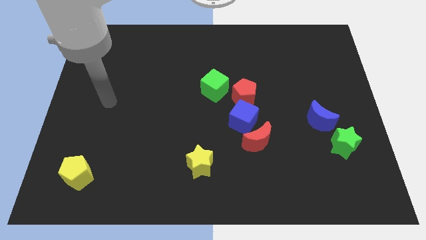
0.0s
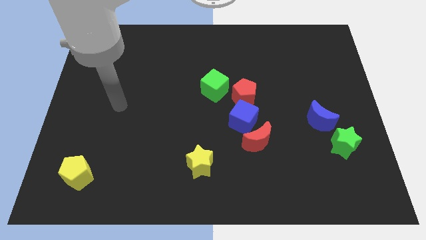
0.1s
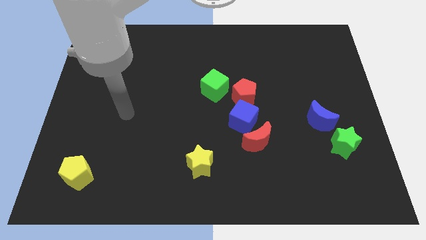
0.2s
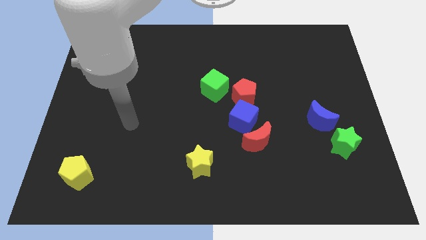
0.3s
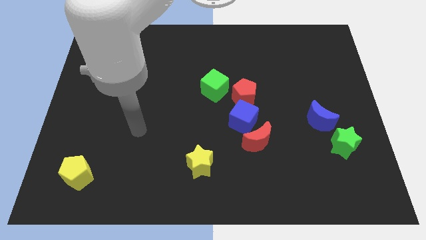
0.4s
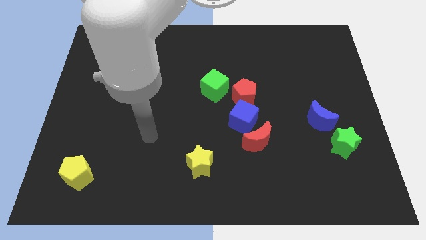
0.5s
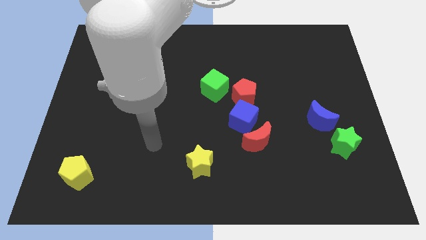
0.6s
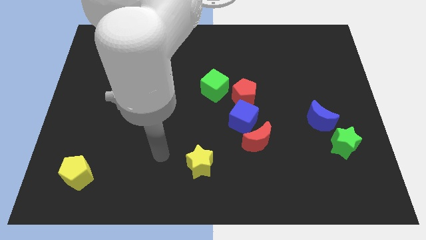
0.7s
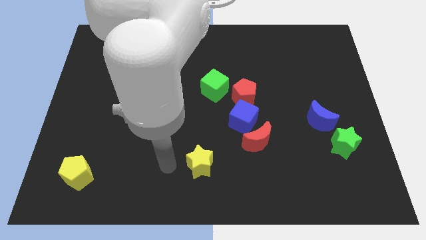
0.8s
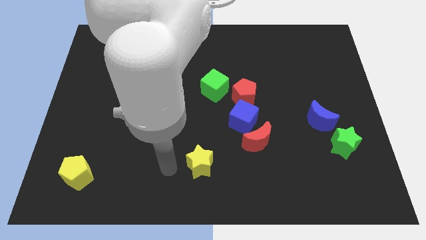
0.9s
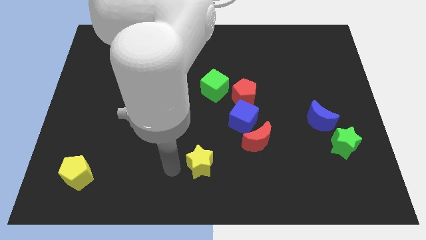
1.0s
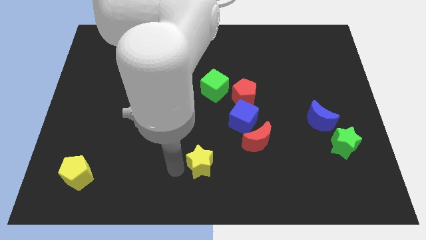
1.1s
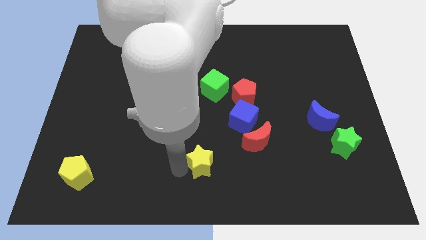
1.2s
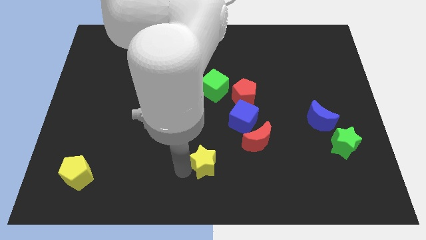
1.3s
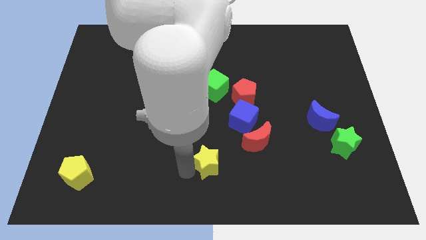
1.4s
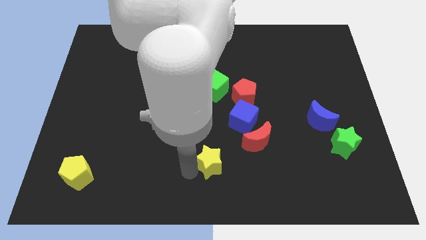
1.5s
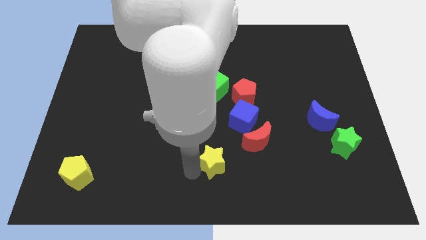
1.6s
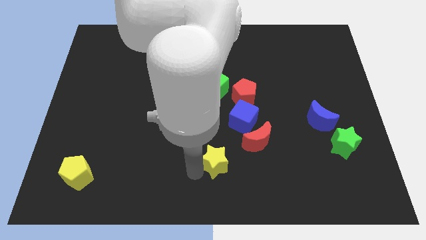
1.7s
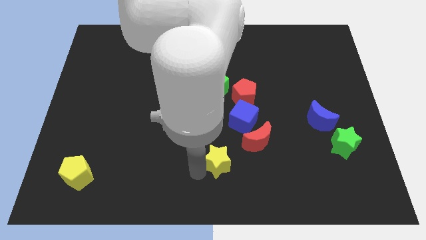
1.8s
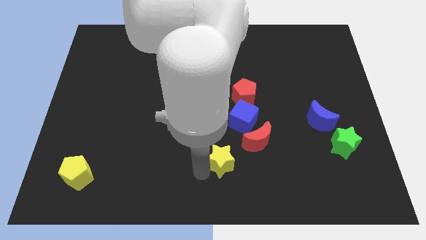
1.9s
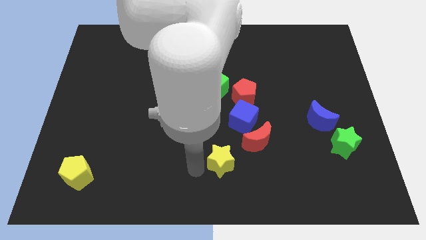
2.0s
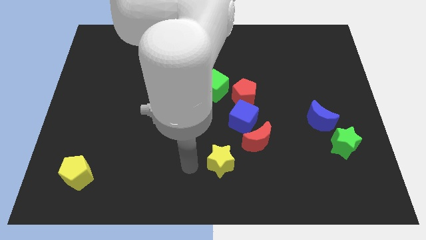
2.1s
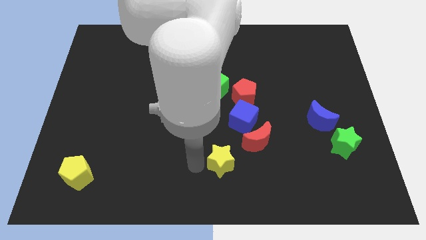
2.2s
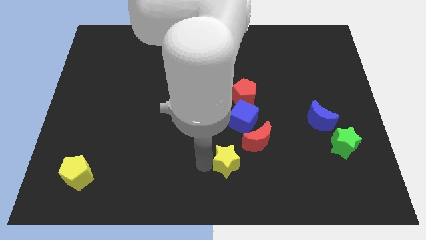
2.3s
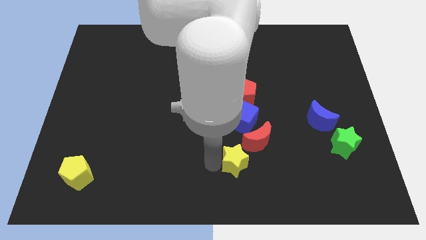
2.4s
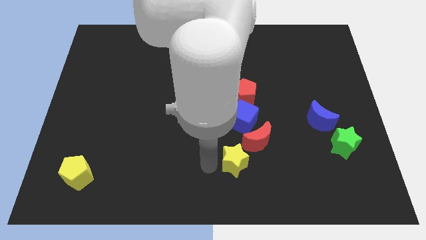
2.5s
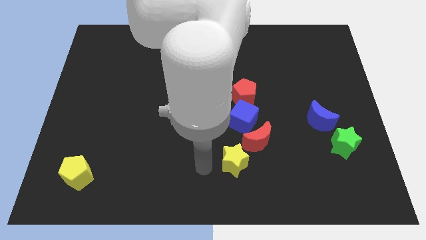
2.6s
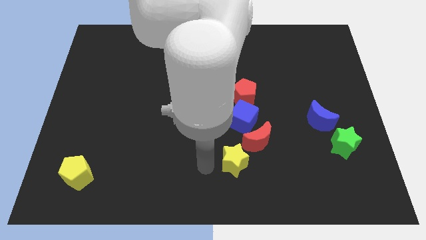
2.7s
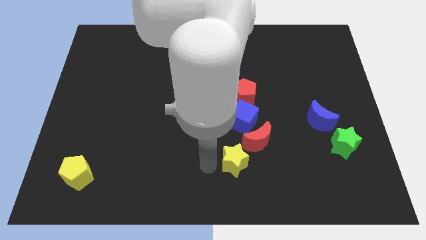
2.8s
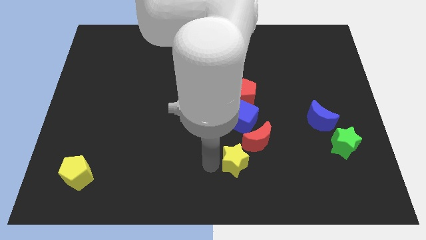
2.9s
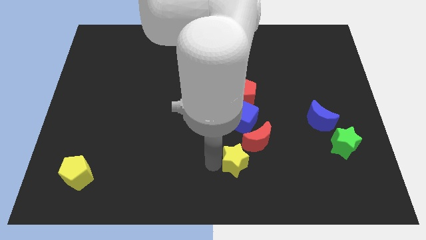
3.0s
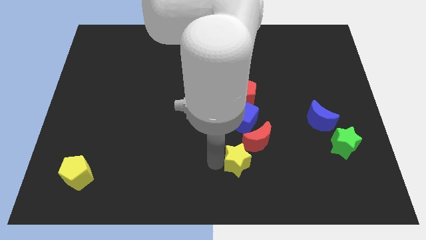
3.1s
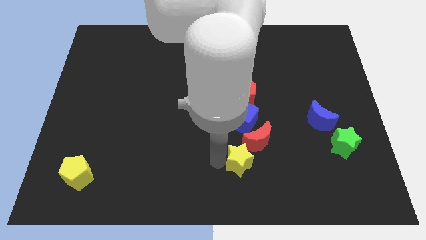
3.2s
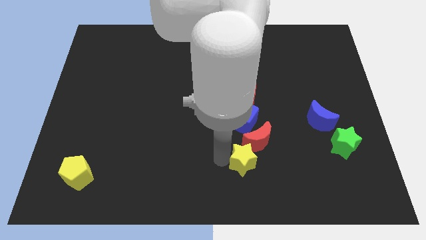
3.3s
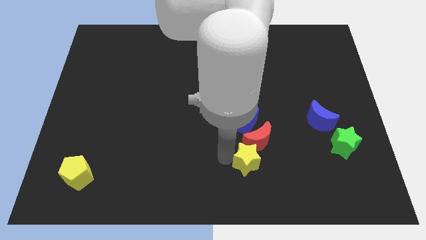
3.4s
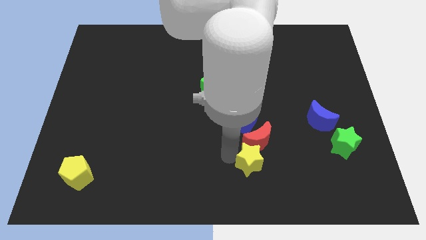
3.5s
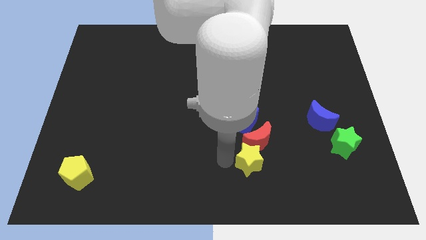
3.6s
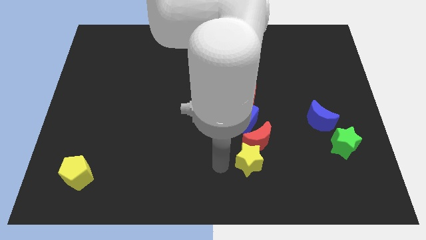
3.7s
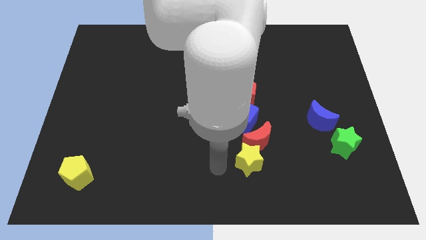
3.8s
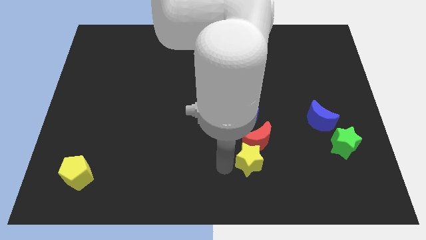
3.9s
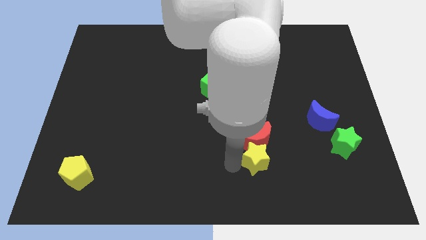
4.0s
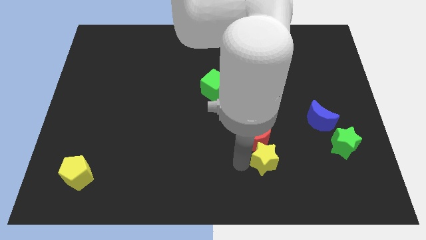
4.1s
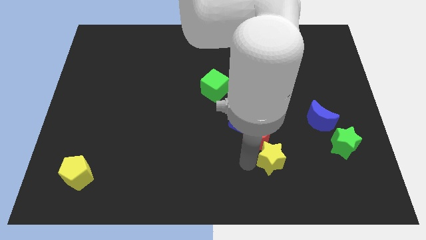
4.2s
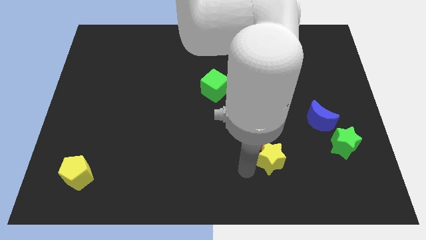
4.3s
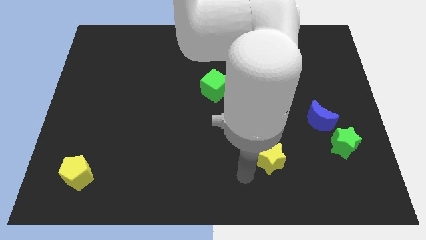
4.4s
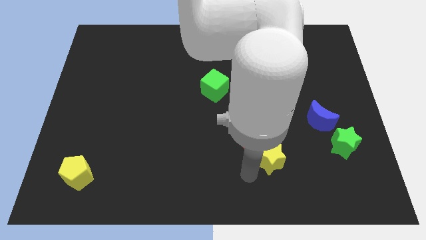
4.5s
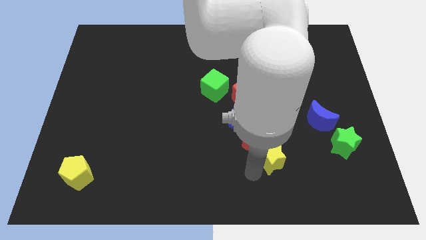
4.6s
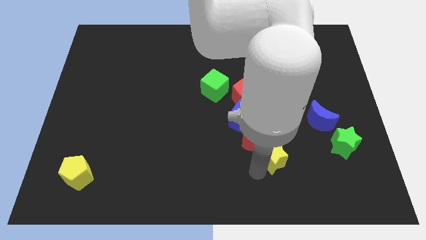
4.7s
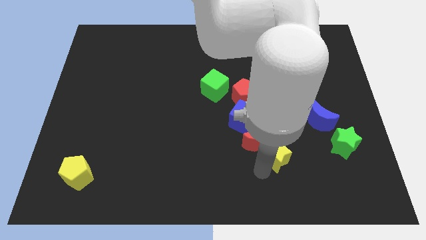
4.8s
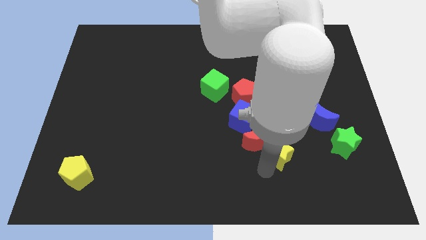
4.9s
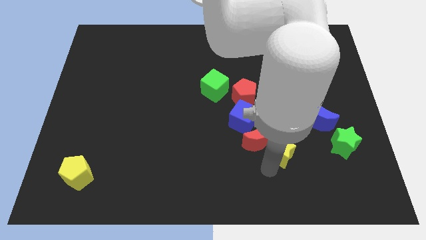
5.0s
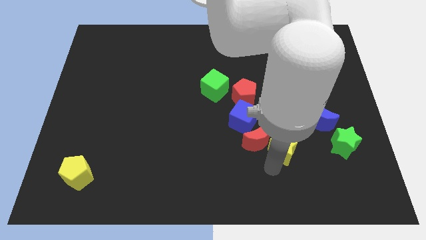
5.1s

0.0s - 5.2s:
slide the yellow star diagonally down and to the left of the blue moon

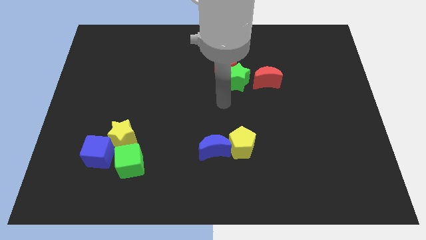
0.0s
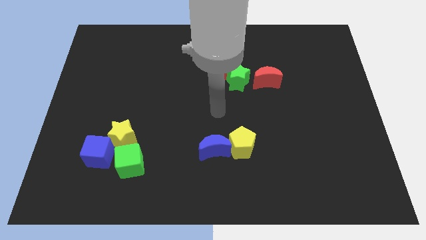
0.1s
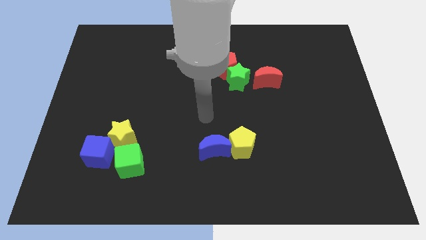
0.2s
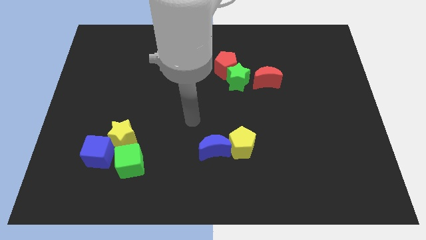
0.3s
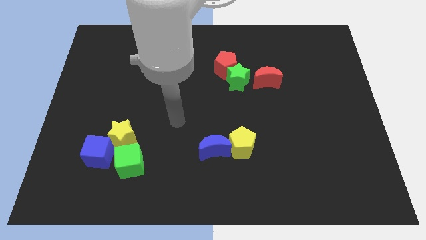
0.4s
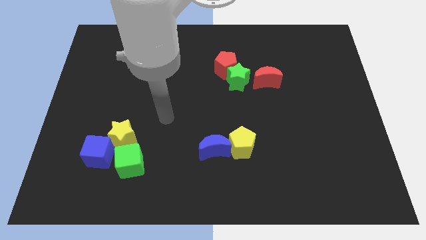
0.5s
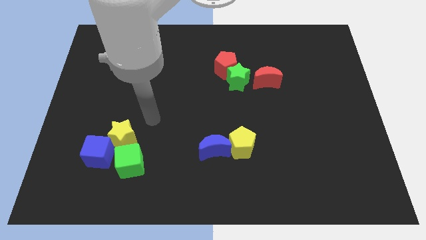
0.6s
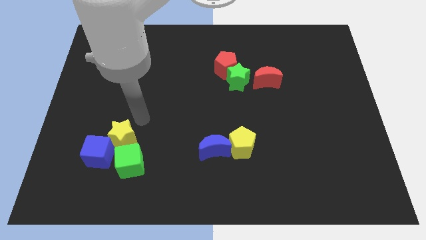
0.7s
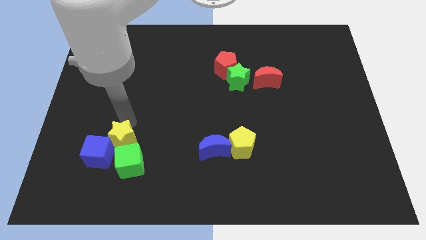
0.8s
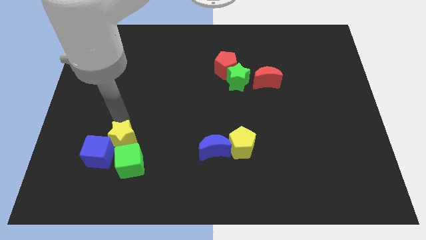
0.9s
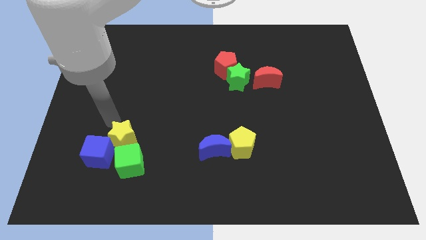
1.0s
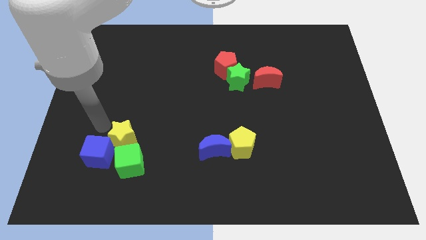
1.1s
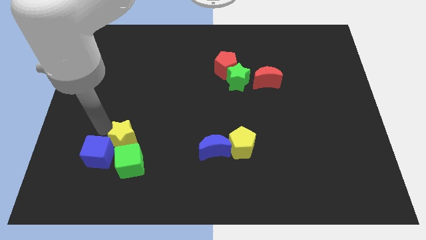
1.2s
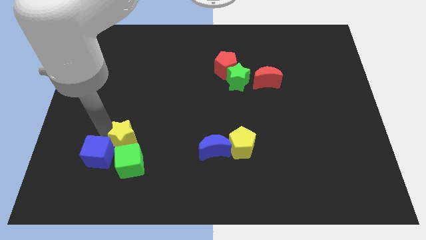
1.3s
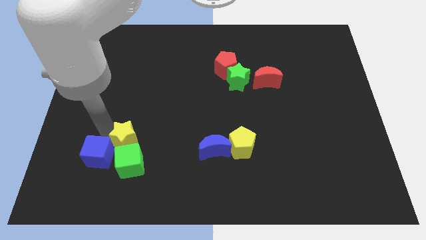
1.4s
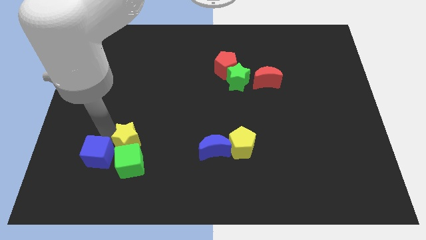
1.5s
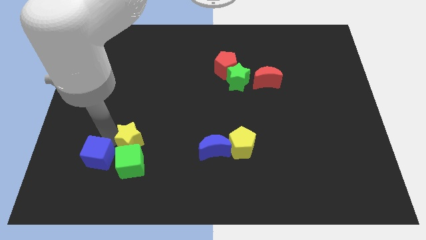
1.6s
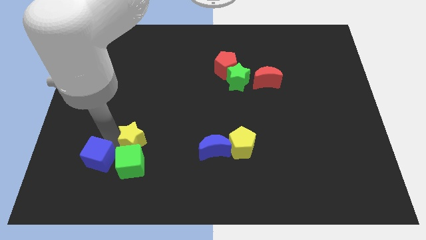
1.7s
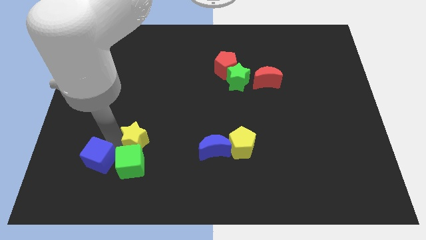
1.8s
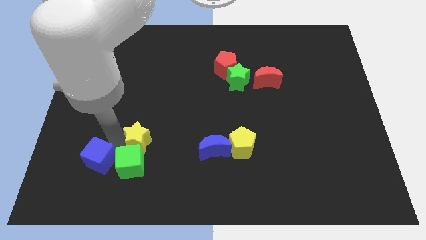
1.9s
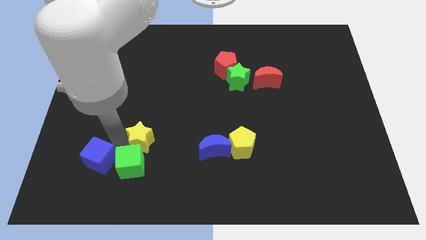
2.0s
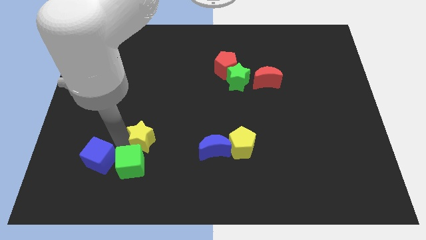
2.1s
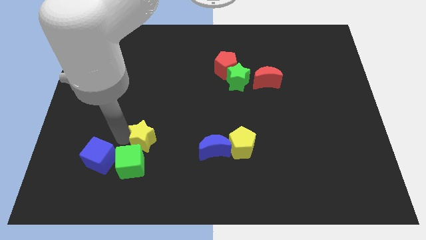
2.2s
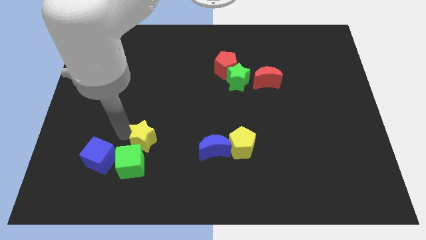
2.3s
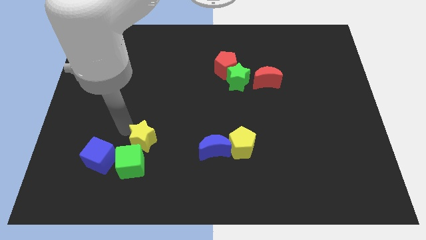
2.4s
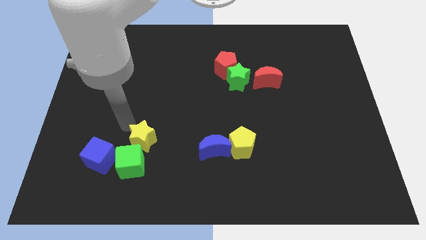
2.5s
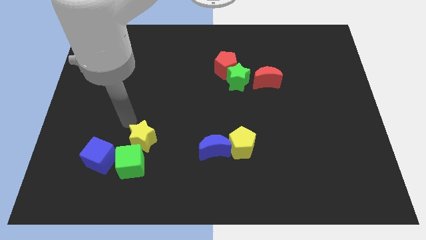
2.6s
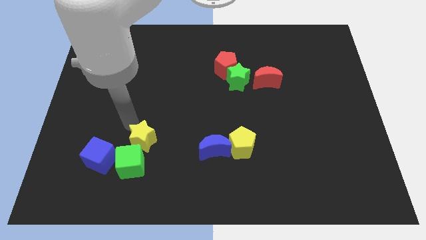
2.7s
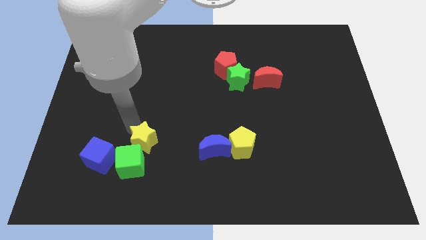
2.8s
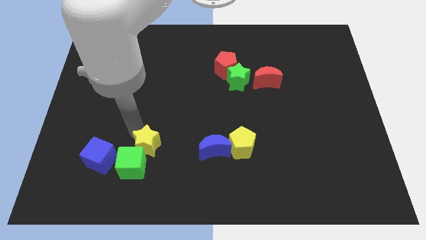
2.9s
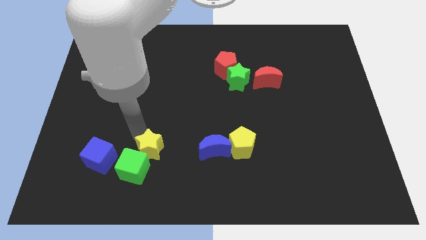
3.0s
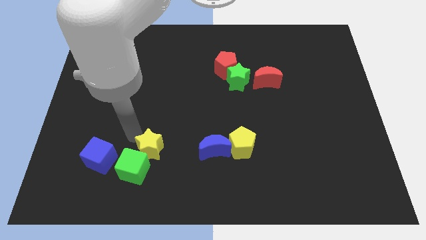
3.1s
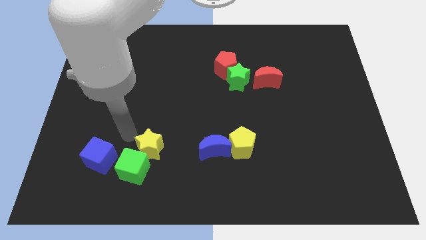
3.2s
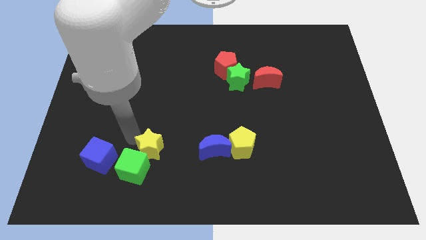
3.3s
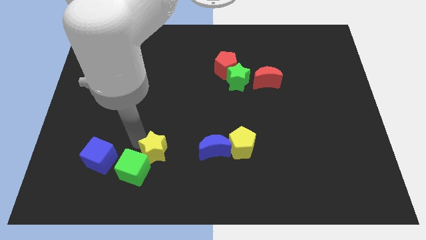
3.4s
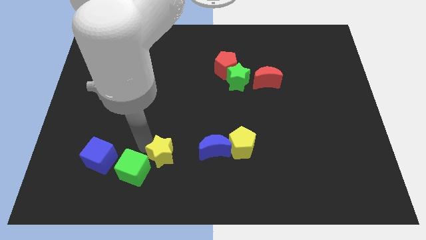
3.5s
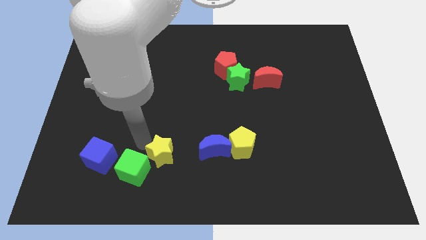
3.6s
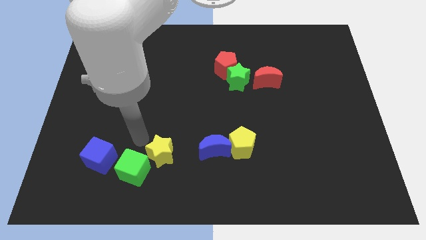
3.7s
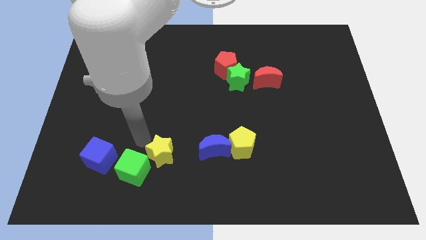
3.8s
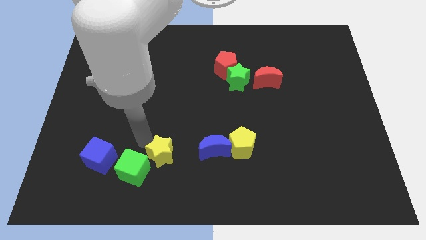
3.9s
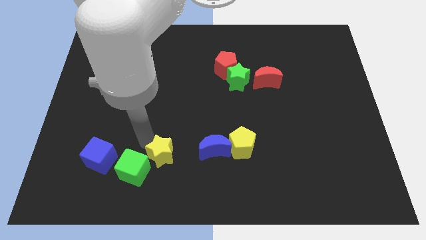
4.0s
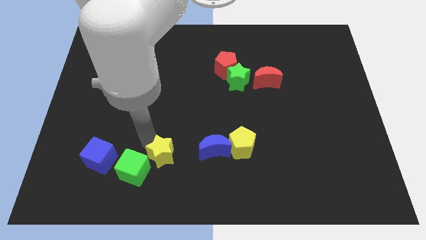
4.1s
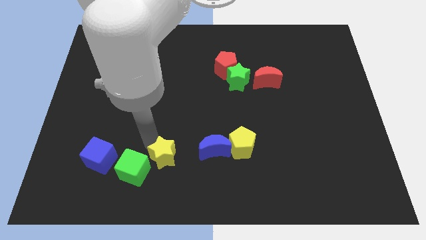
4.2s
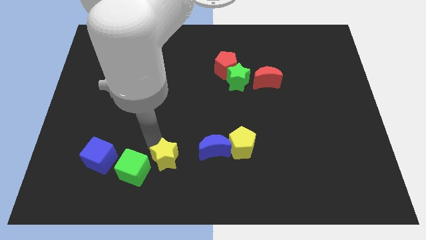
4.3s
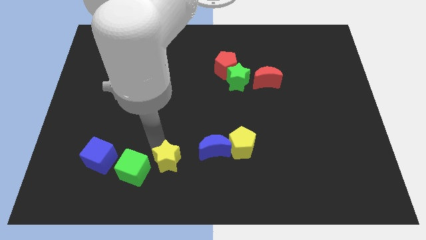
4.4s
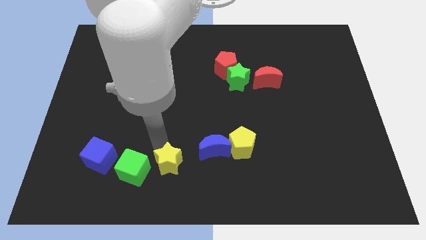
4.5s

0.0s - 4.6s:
put the yellow star diagonally down and to the left of the blue moon
